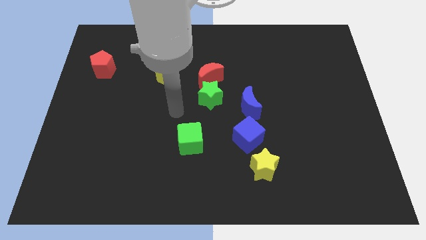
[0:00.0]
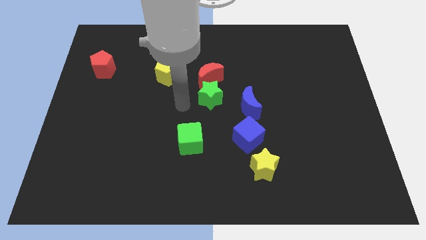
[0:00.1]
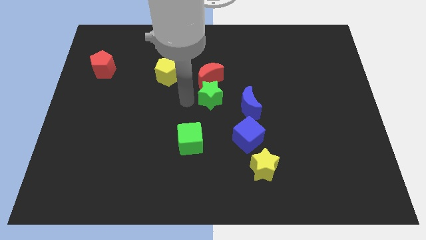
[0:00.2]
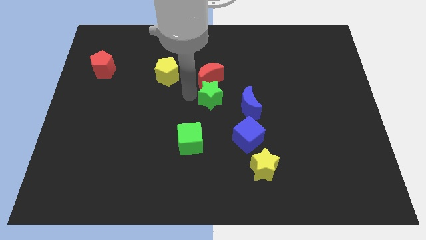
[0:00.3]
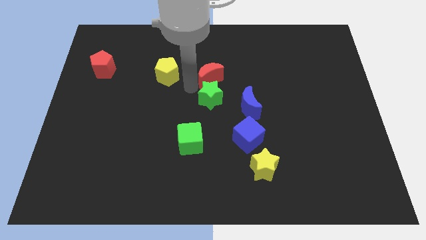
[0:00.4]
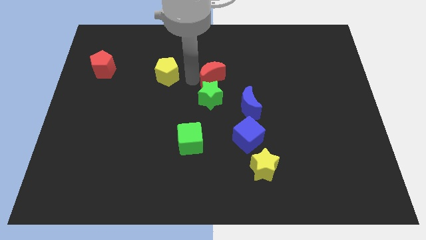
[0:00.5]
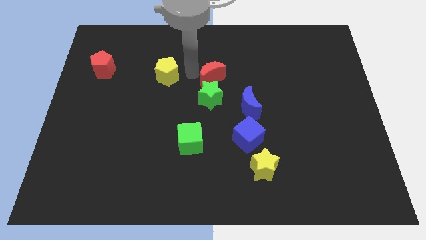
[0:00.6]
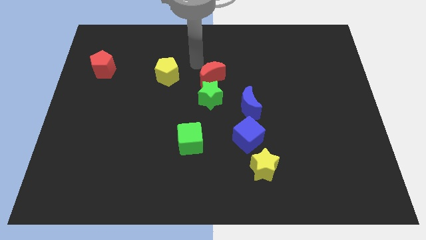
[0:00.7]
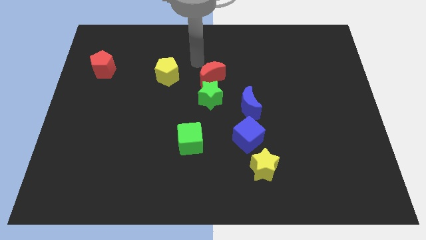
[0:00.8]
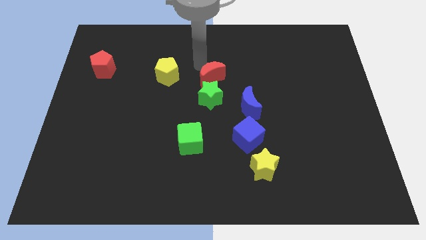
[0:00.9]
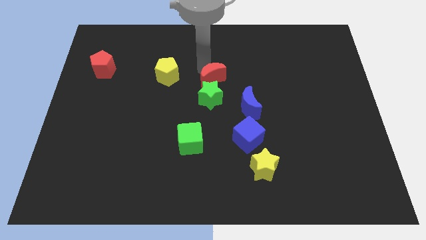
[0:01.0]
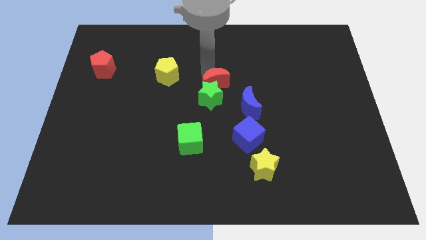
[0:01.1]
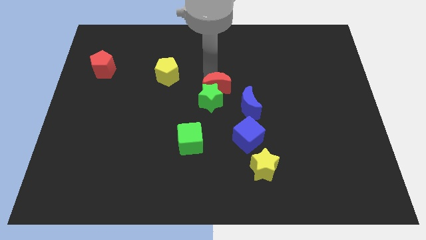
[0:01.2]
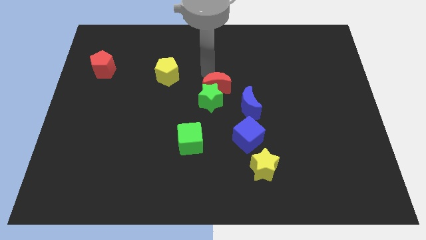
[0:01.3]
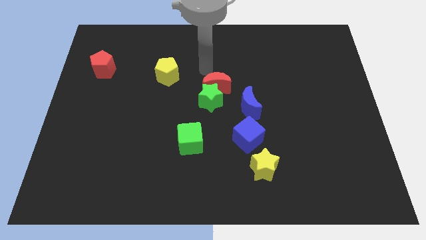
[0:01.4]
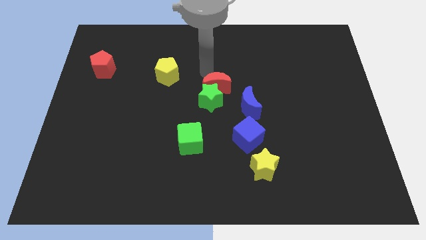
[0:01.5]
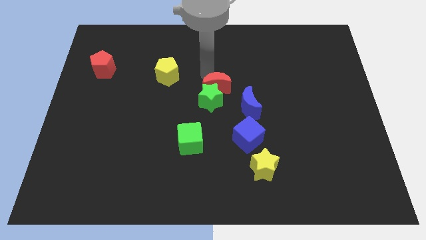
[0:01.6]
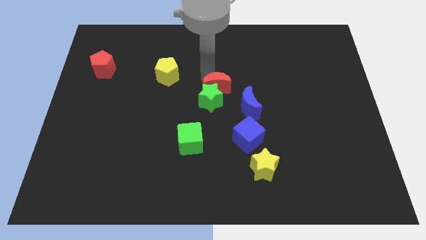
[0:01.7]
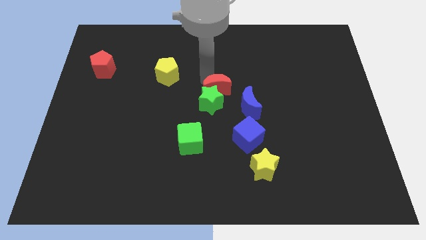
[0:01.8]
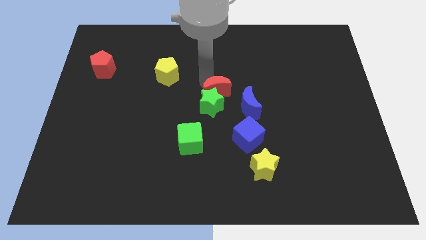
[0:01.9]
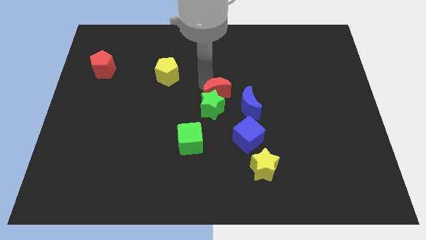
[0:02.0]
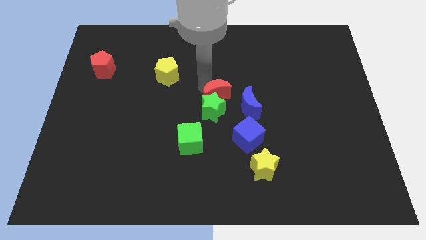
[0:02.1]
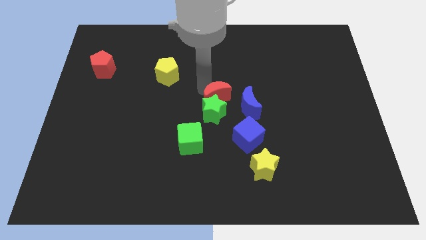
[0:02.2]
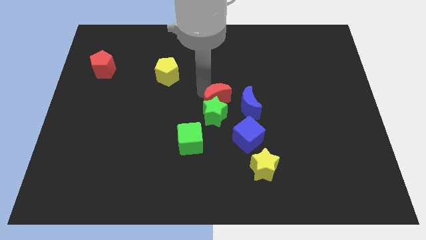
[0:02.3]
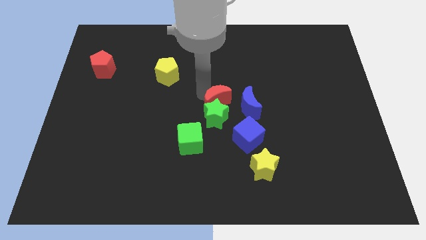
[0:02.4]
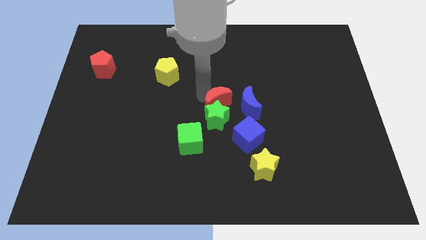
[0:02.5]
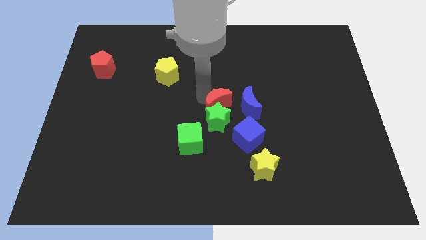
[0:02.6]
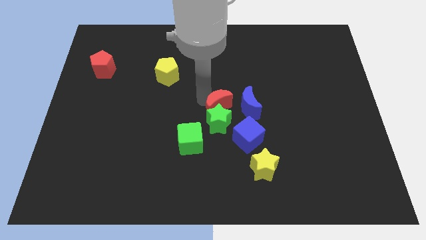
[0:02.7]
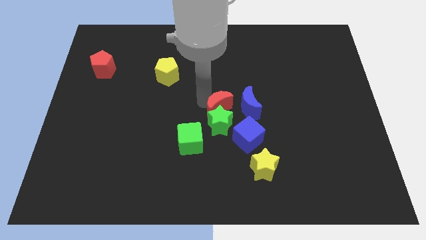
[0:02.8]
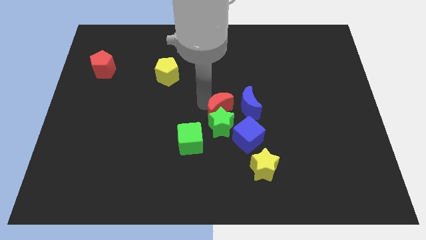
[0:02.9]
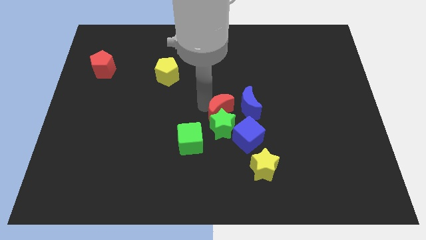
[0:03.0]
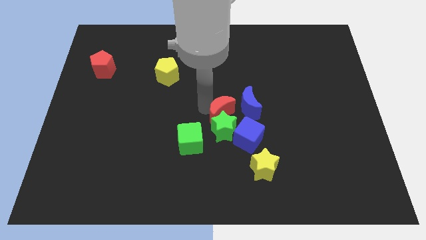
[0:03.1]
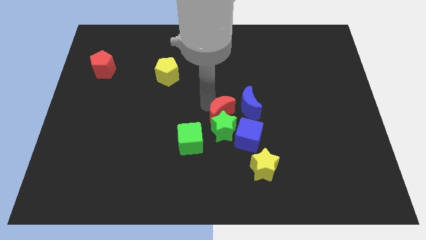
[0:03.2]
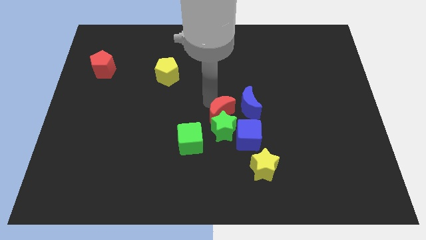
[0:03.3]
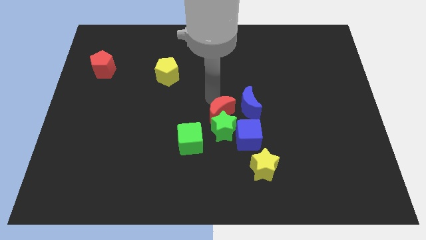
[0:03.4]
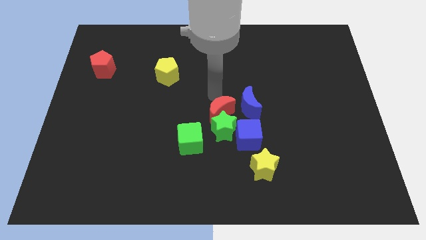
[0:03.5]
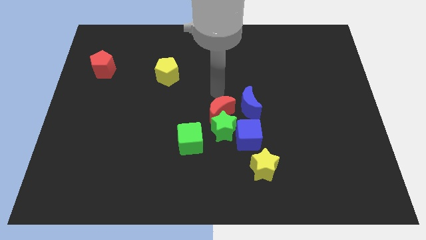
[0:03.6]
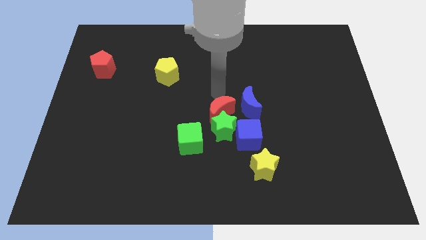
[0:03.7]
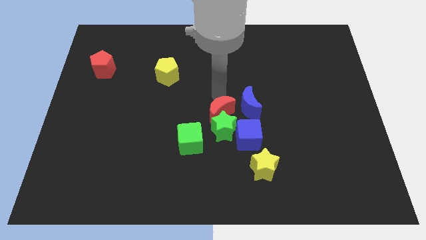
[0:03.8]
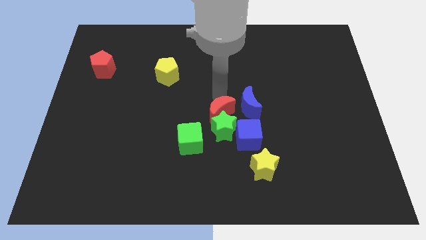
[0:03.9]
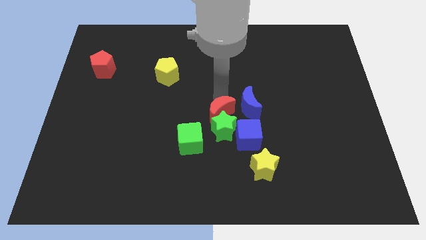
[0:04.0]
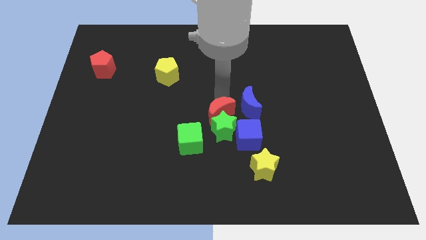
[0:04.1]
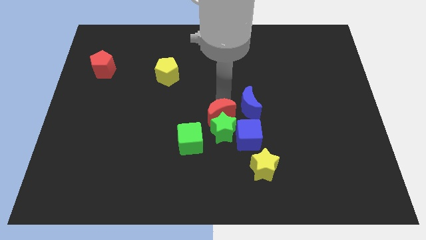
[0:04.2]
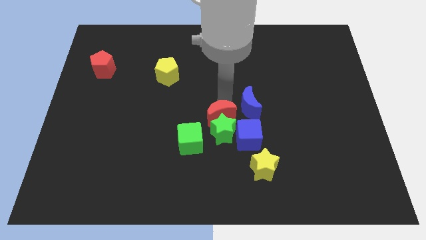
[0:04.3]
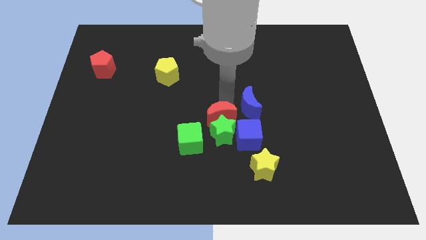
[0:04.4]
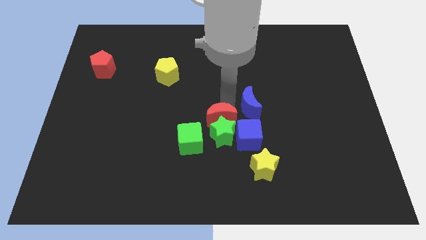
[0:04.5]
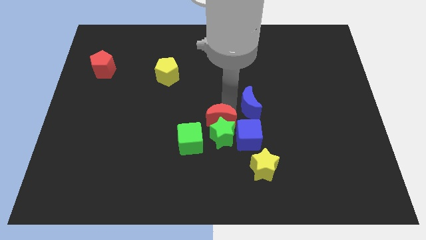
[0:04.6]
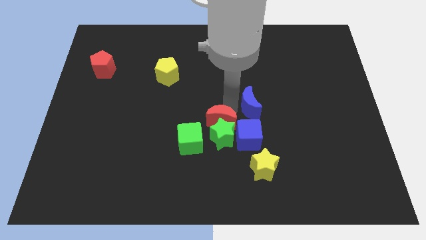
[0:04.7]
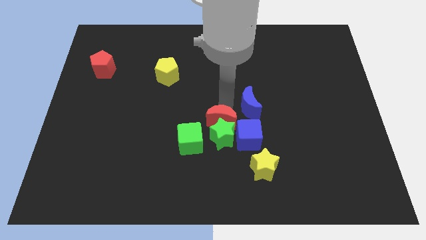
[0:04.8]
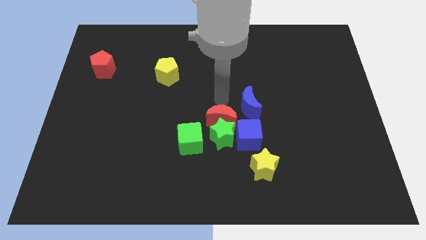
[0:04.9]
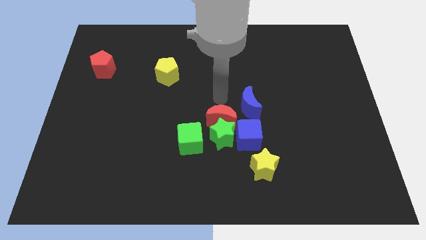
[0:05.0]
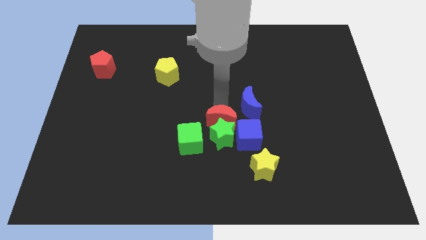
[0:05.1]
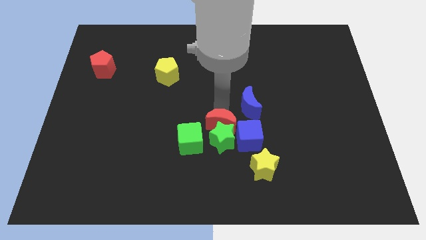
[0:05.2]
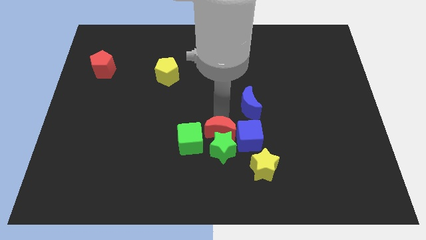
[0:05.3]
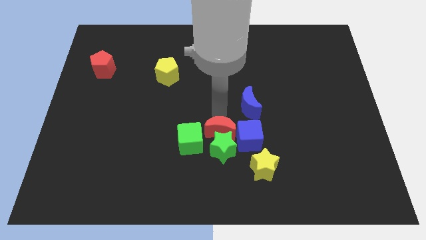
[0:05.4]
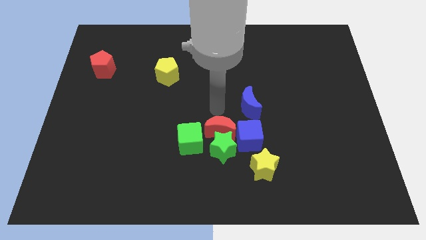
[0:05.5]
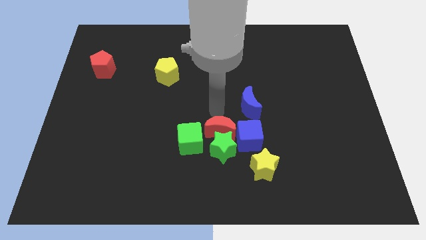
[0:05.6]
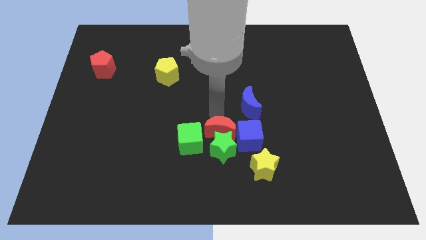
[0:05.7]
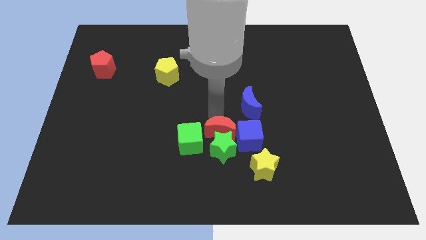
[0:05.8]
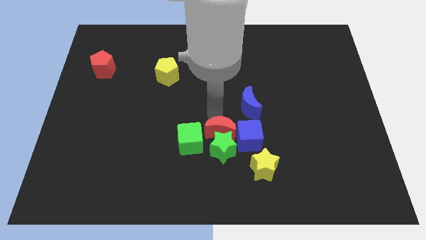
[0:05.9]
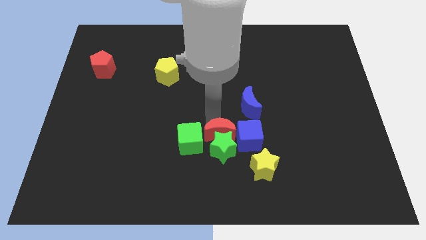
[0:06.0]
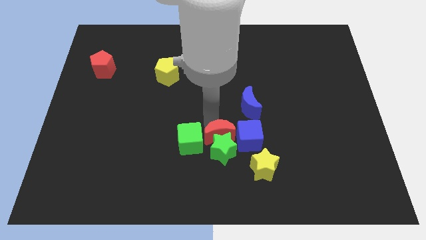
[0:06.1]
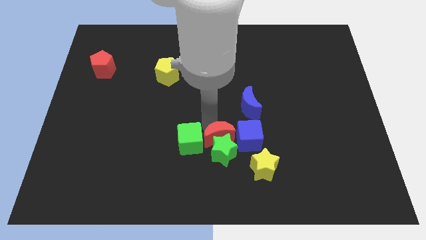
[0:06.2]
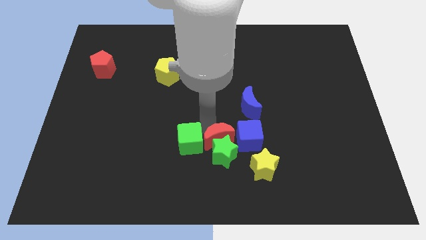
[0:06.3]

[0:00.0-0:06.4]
slide the red moon to the bottom left side of the blue cube

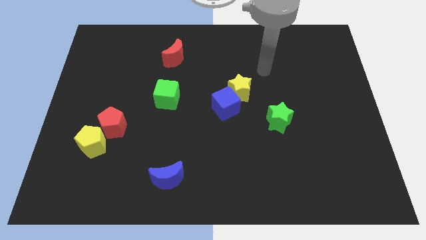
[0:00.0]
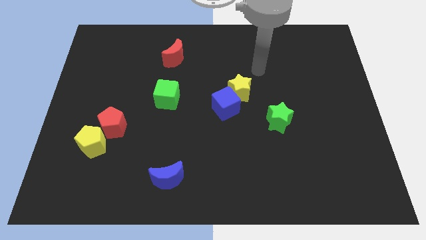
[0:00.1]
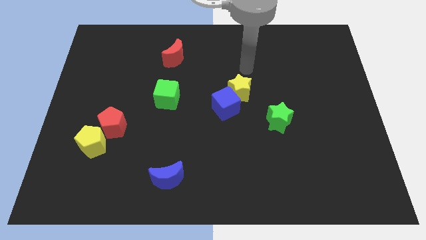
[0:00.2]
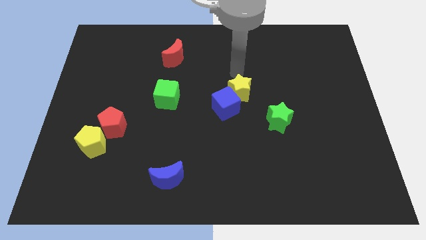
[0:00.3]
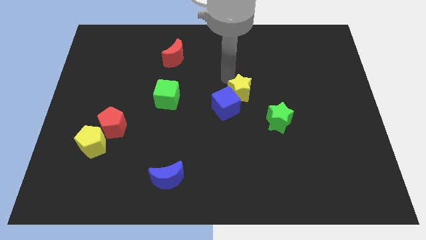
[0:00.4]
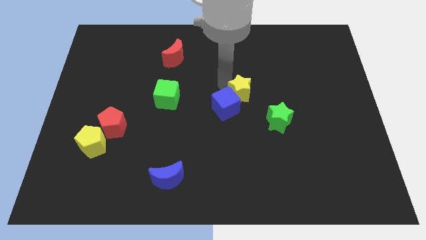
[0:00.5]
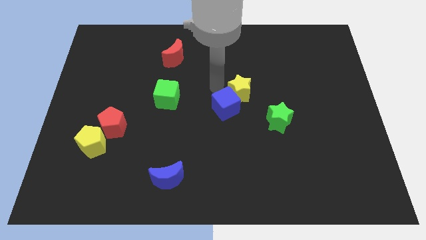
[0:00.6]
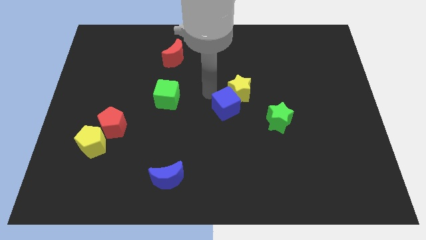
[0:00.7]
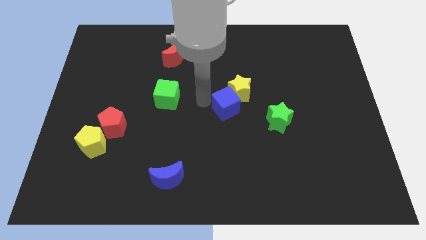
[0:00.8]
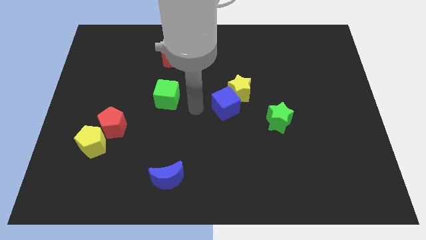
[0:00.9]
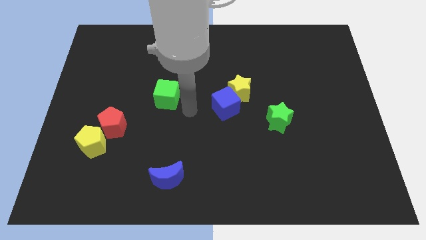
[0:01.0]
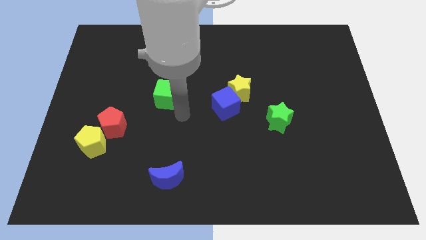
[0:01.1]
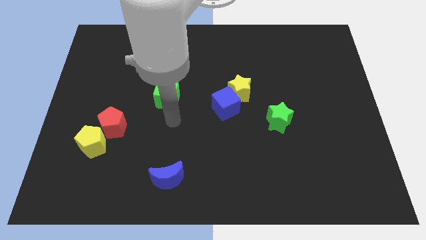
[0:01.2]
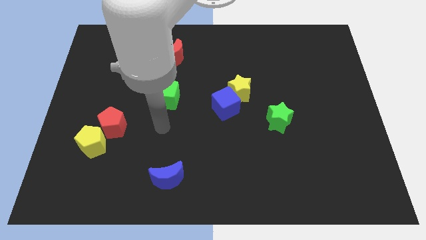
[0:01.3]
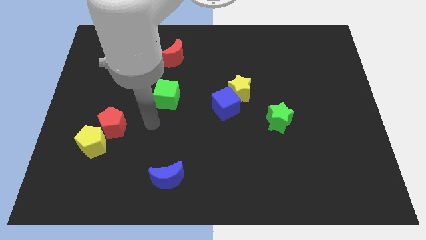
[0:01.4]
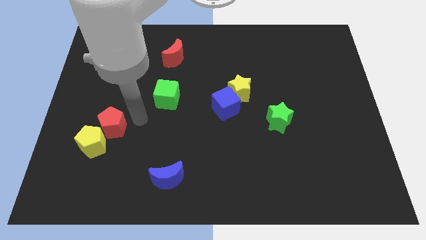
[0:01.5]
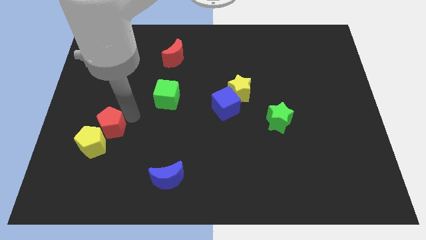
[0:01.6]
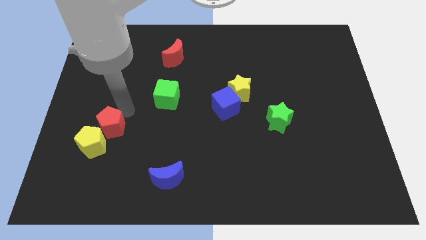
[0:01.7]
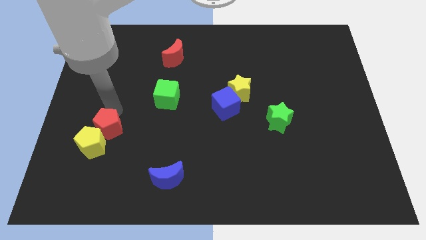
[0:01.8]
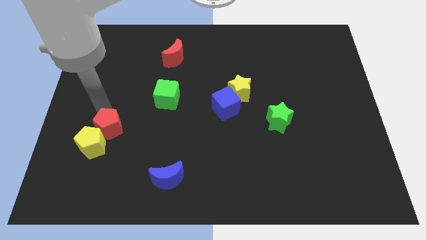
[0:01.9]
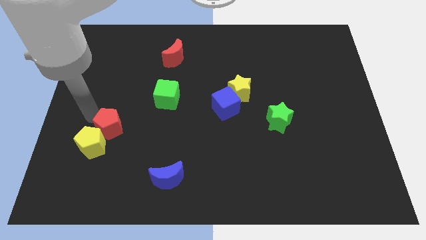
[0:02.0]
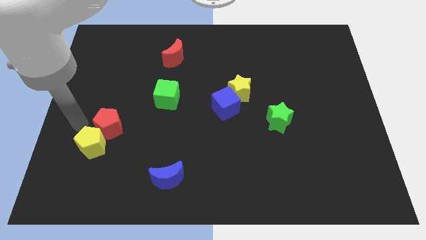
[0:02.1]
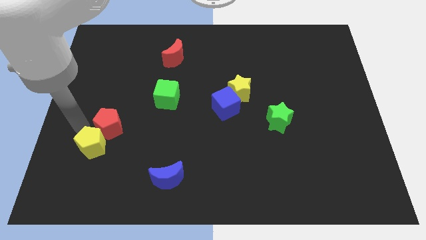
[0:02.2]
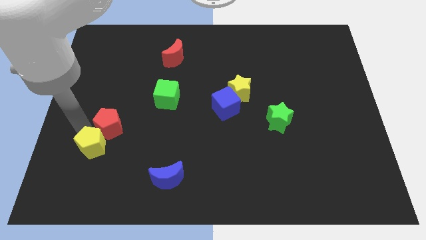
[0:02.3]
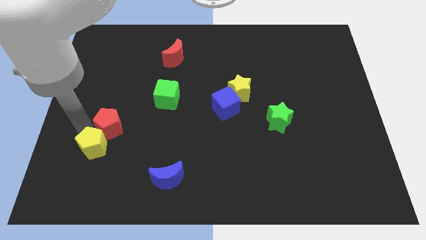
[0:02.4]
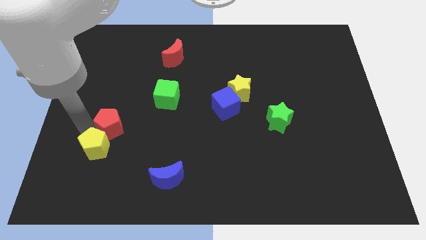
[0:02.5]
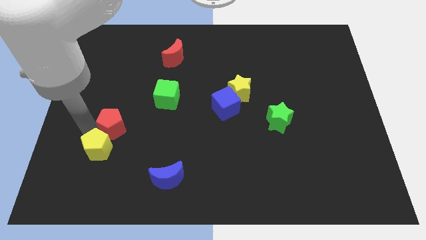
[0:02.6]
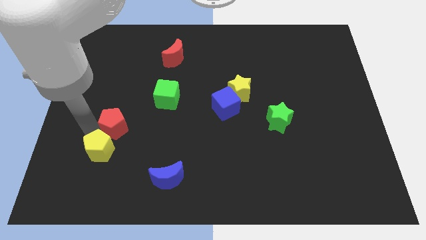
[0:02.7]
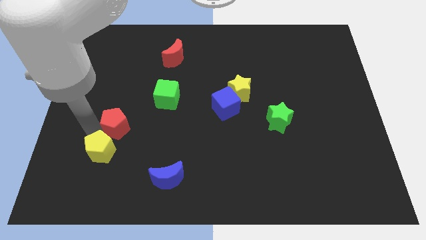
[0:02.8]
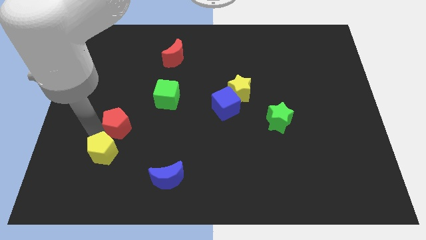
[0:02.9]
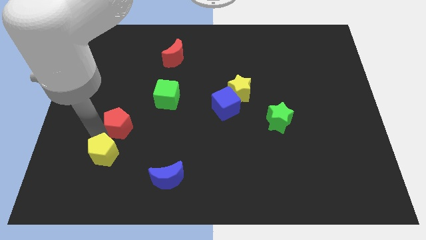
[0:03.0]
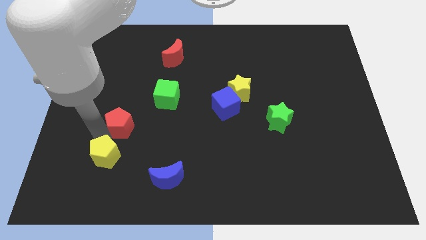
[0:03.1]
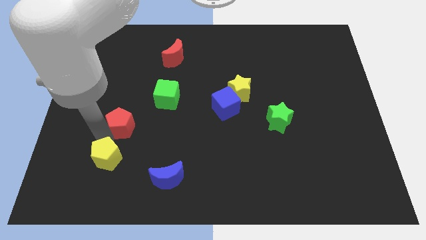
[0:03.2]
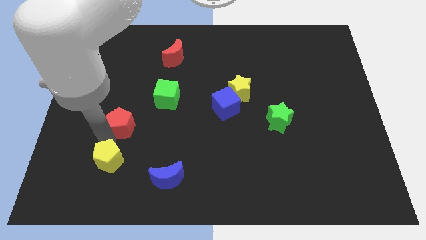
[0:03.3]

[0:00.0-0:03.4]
push the yellow pentagon to the left side of the blue moon
